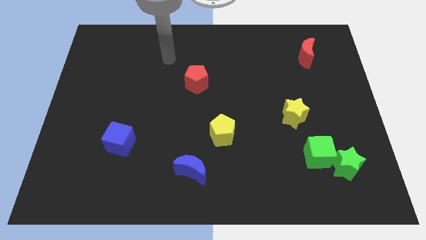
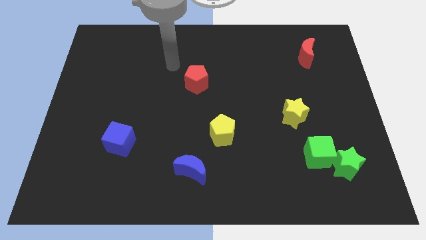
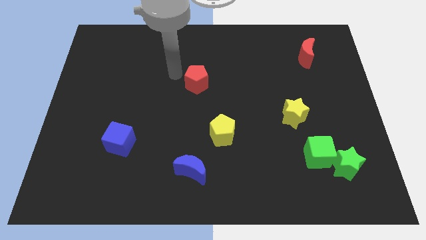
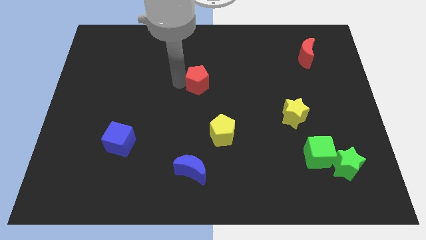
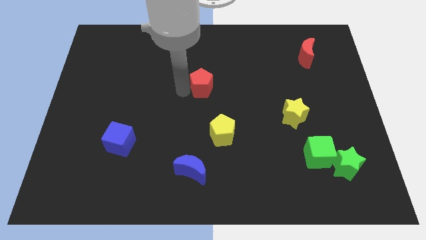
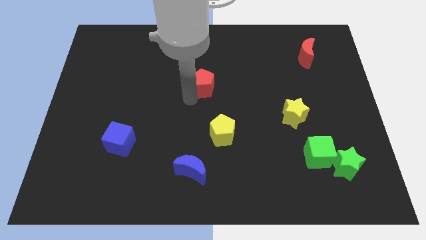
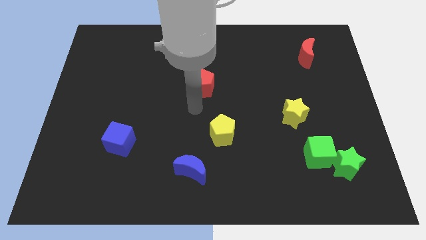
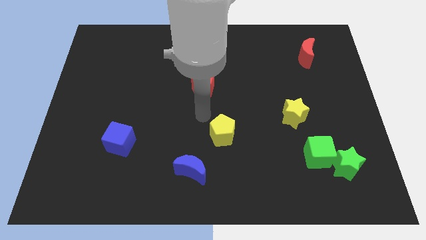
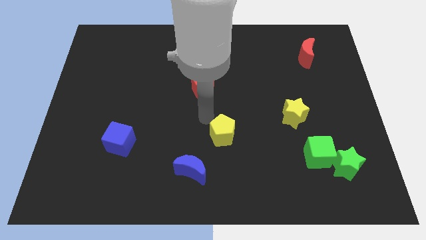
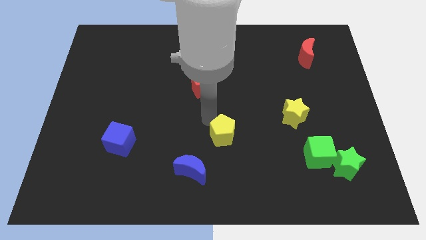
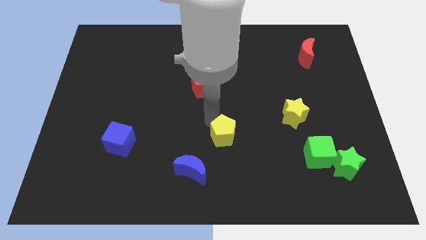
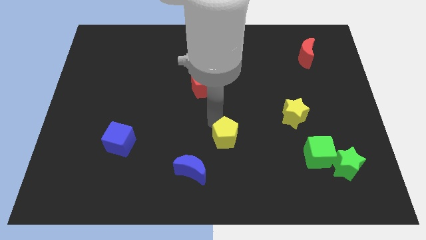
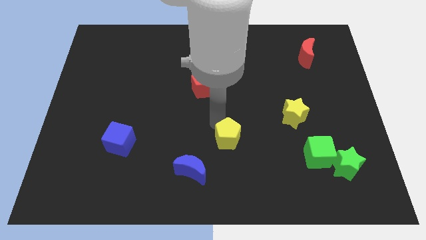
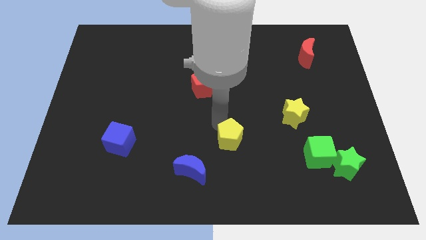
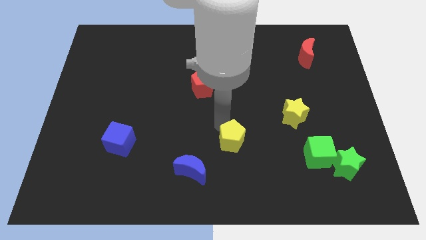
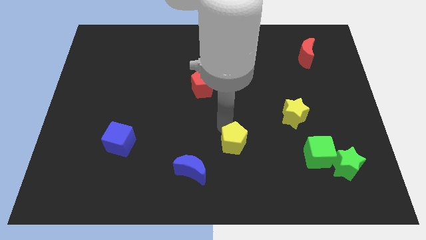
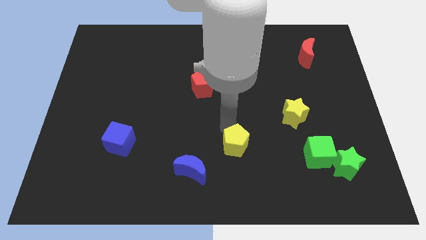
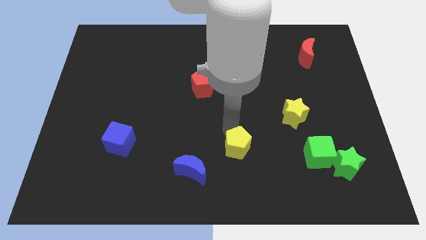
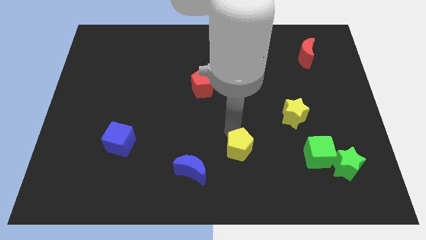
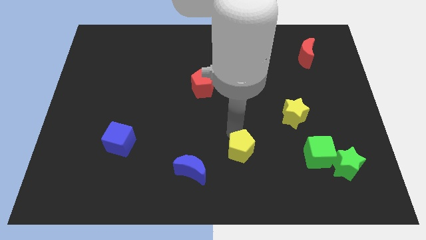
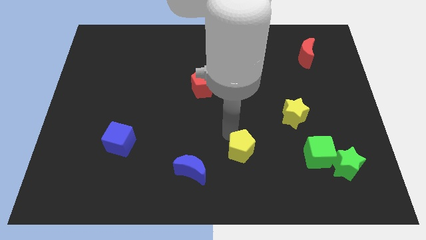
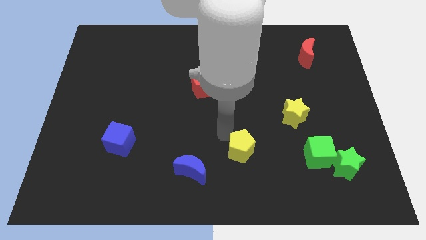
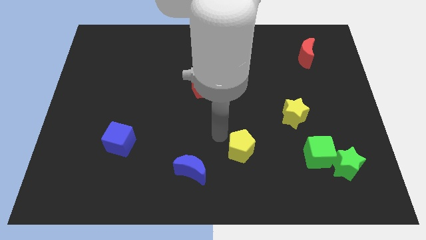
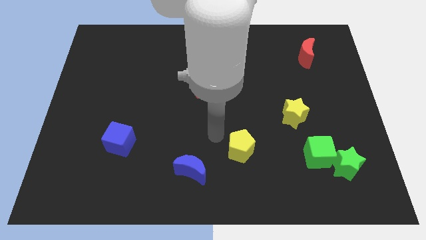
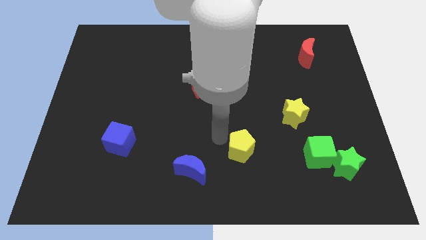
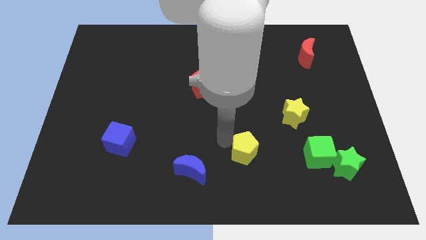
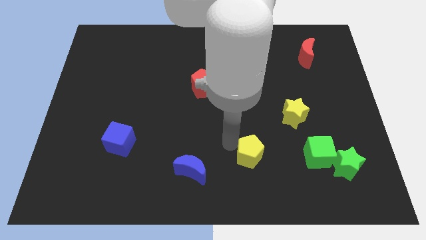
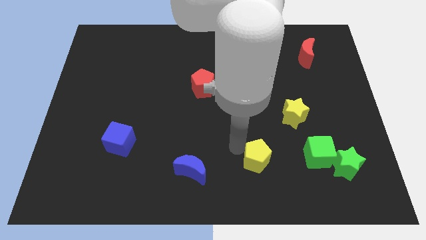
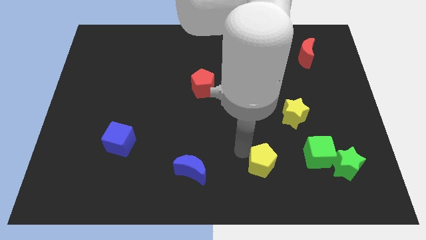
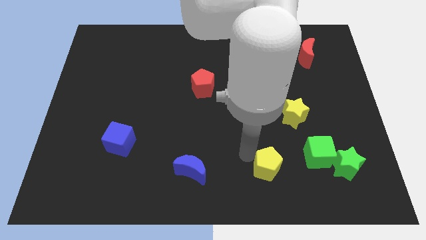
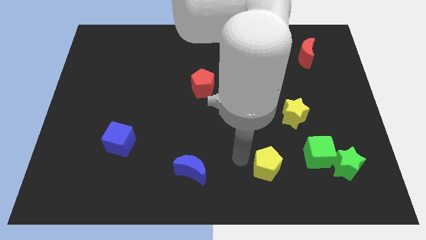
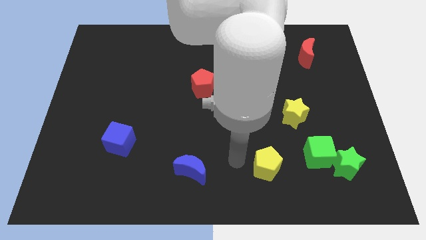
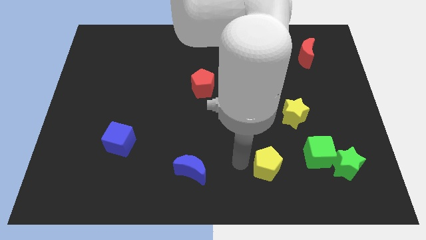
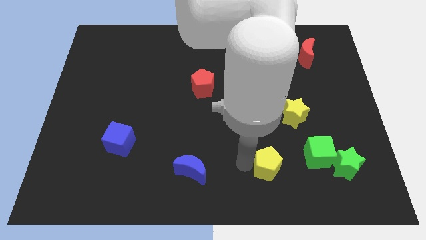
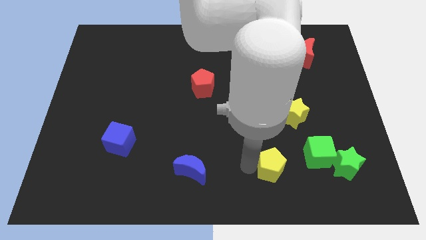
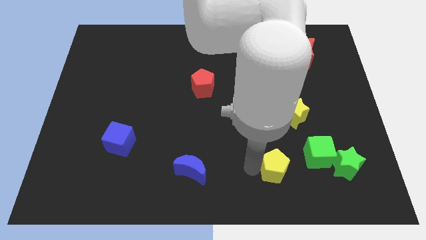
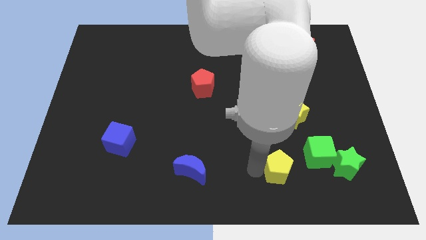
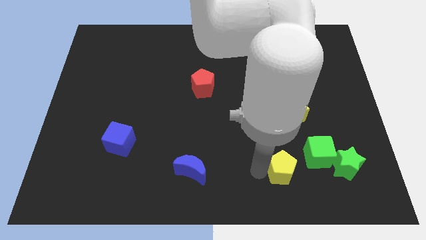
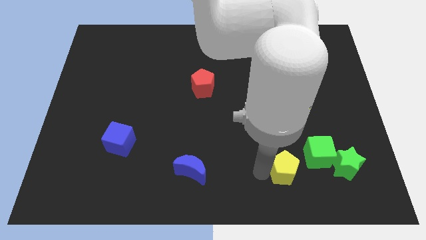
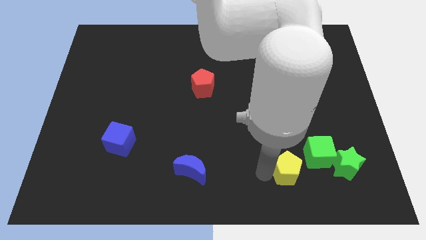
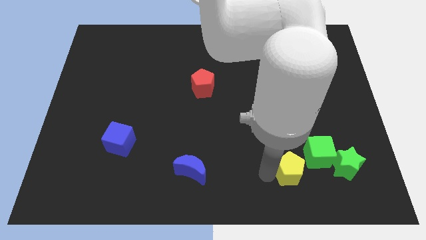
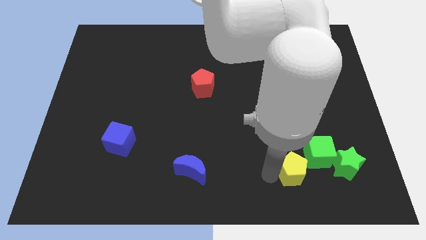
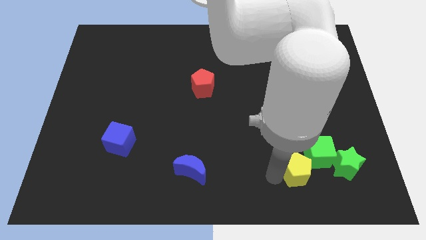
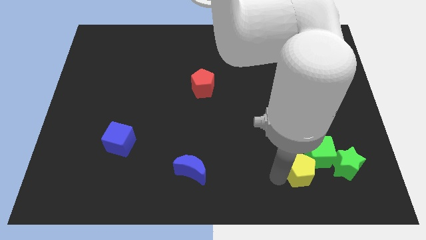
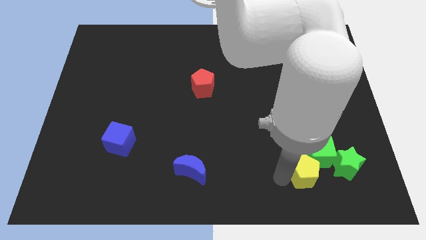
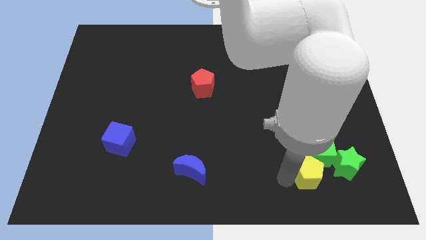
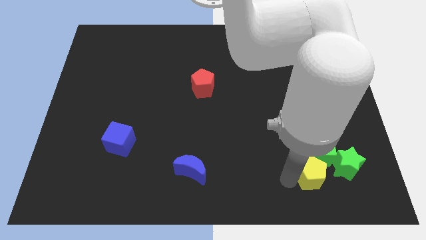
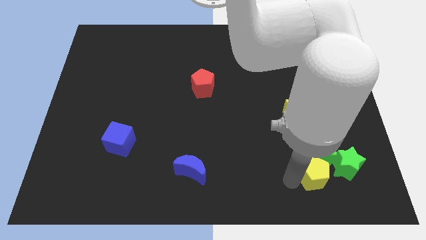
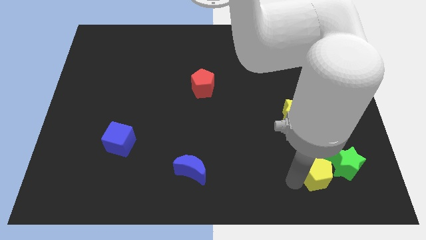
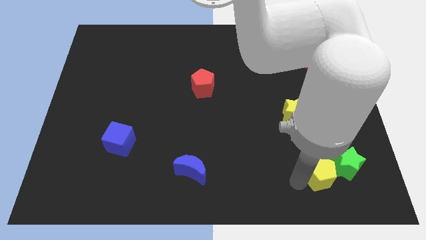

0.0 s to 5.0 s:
slide the yellow pentagon close to the green star

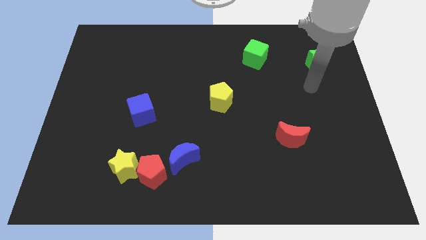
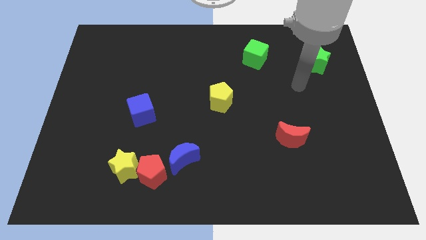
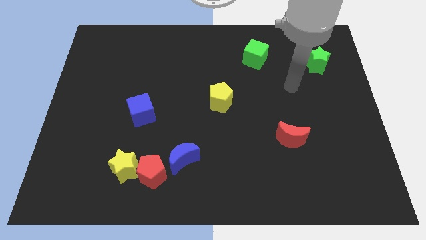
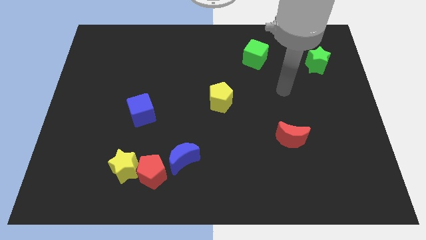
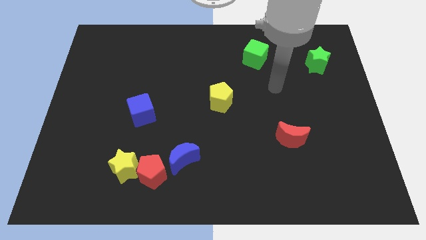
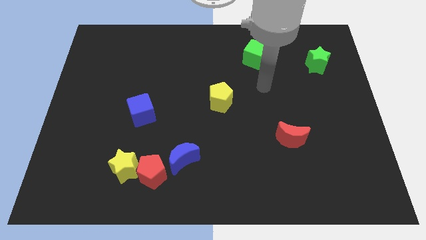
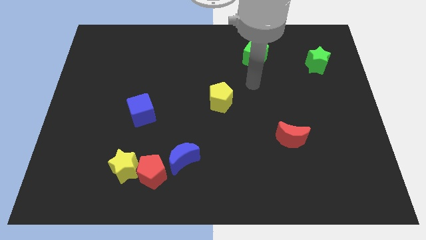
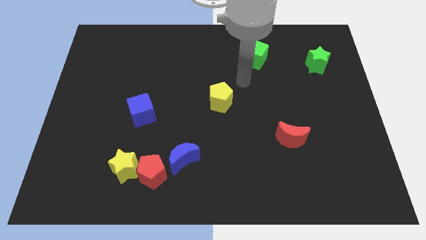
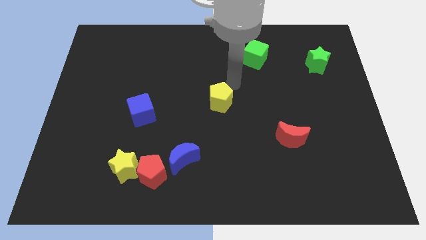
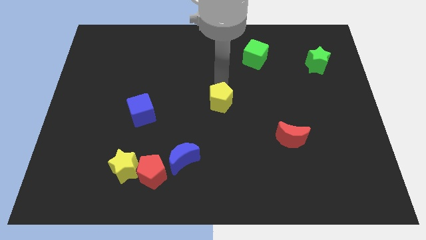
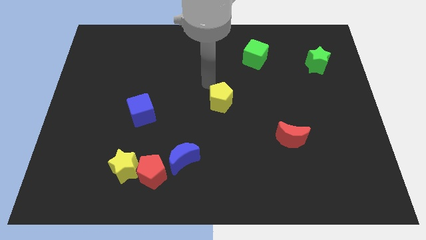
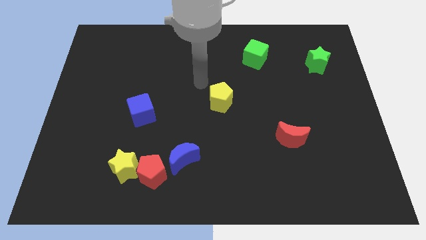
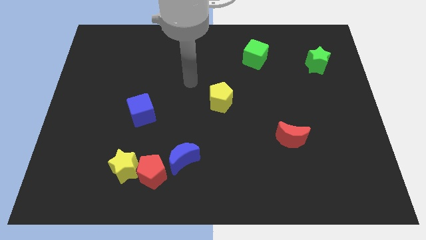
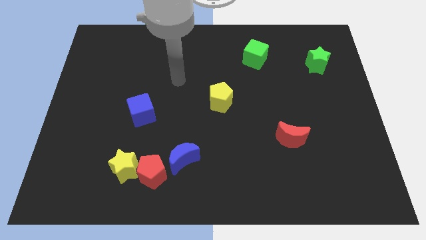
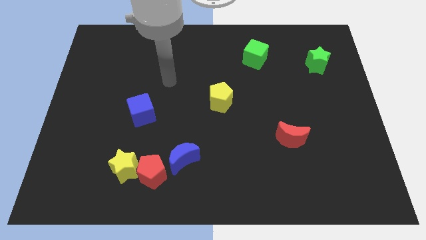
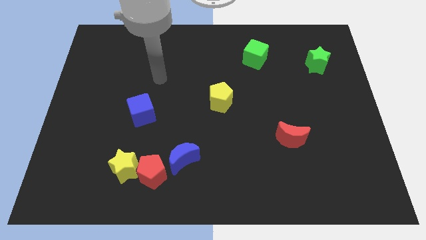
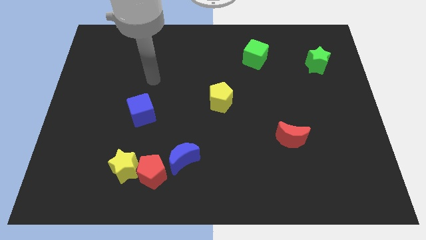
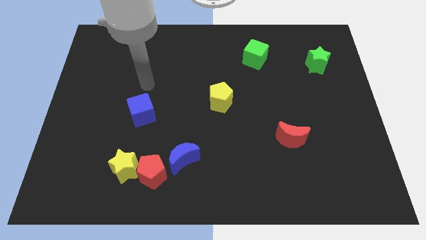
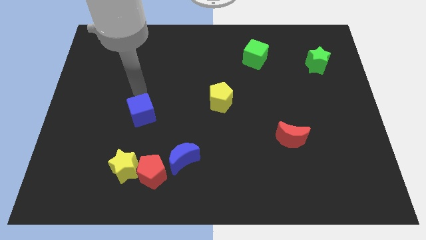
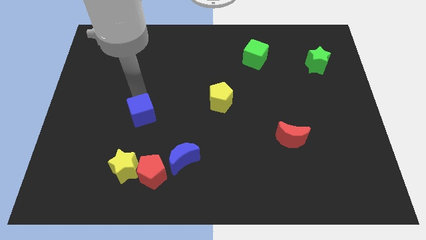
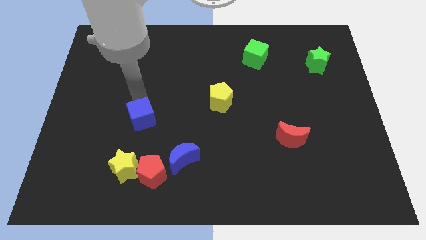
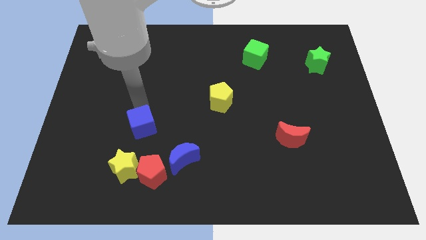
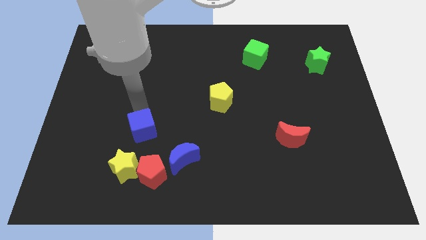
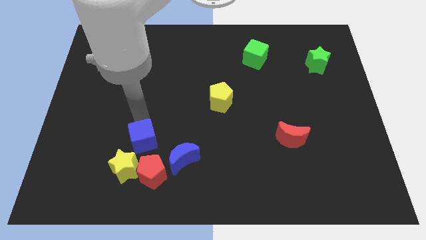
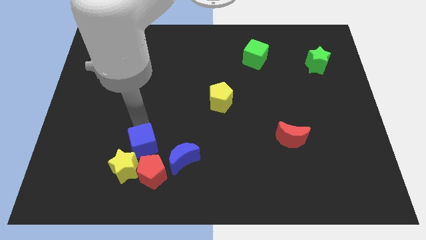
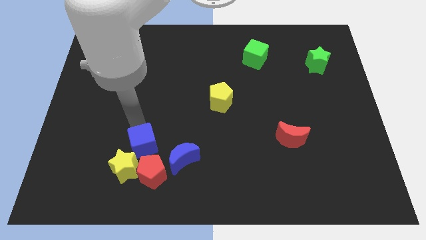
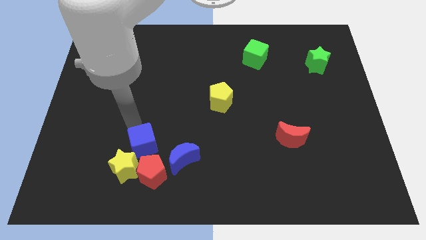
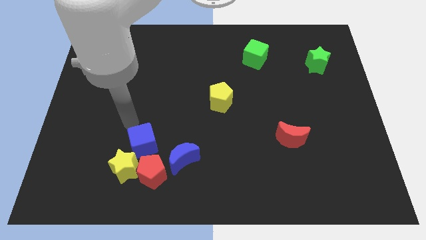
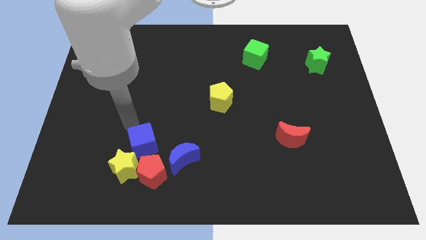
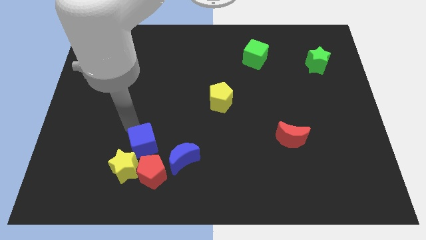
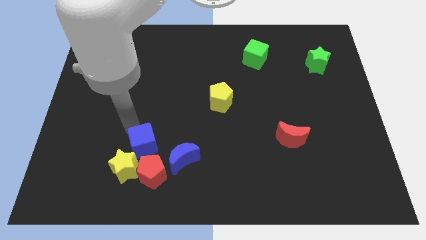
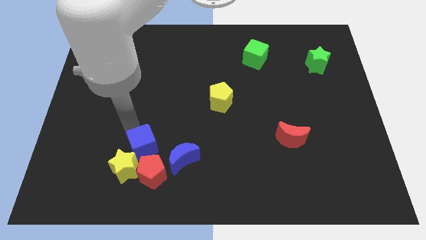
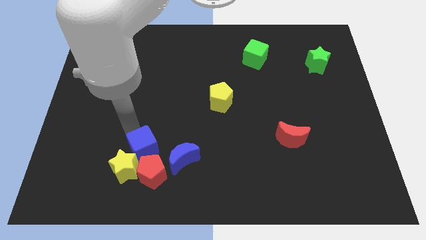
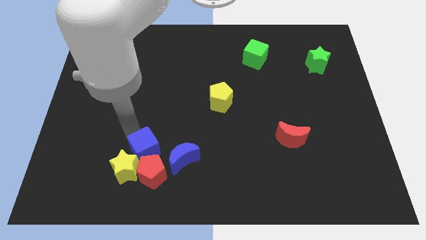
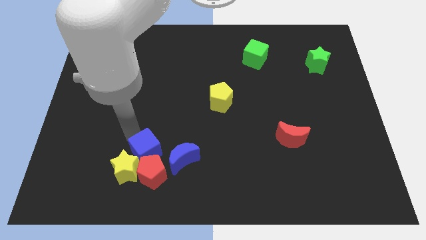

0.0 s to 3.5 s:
push the blue cube close to the red pentagon
